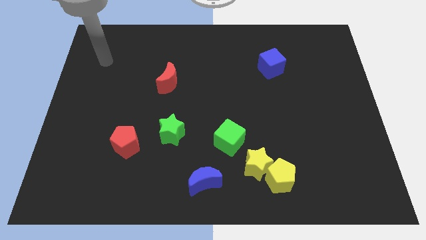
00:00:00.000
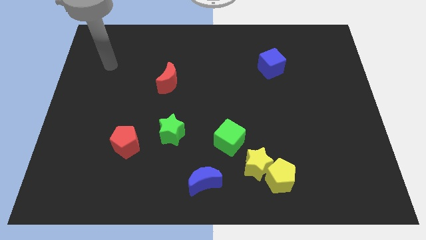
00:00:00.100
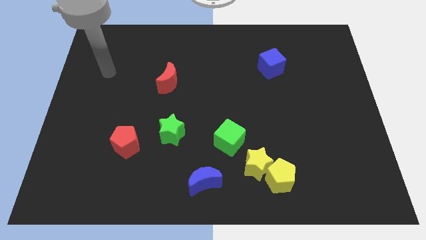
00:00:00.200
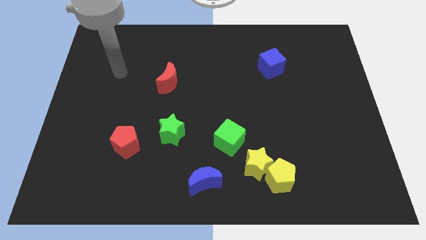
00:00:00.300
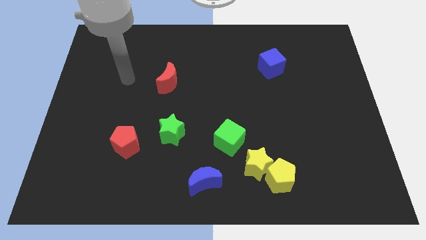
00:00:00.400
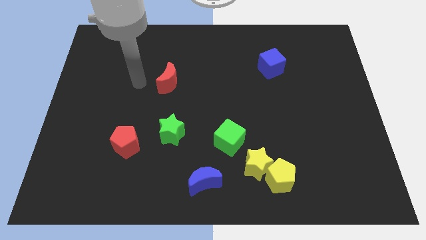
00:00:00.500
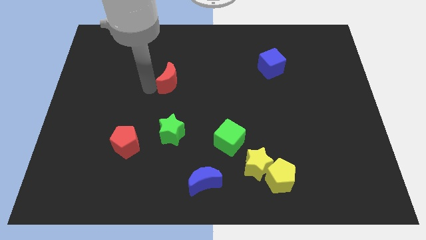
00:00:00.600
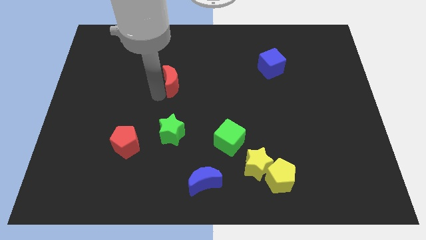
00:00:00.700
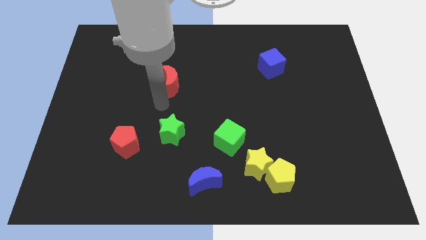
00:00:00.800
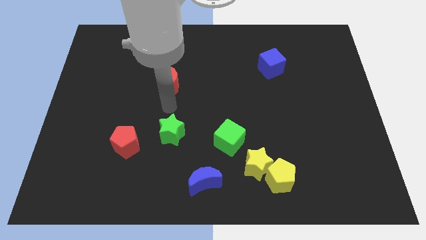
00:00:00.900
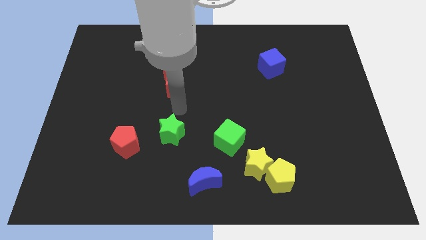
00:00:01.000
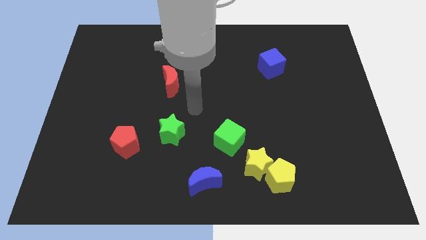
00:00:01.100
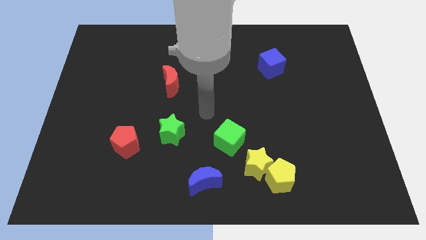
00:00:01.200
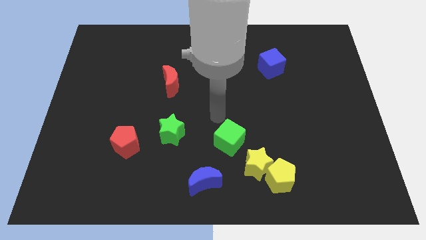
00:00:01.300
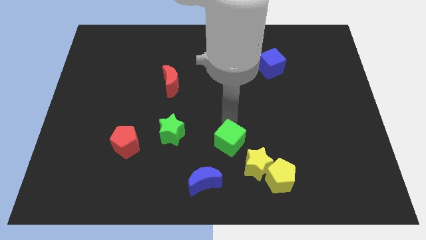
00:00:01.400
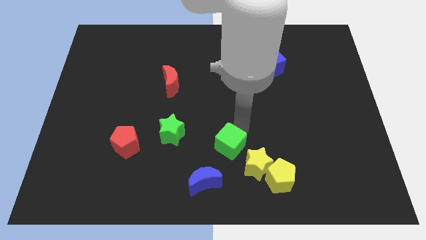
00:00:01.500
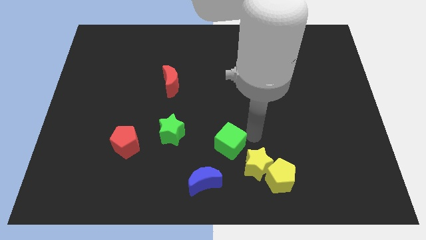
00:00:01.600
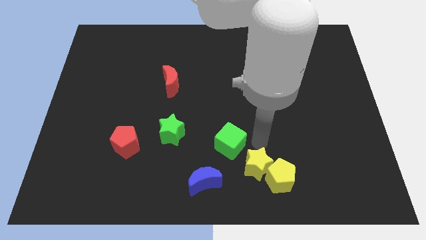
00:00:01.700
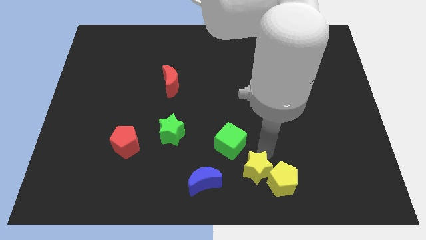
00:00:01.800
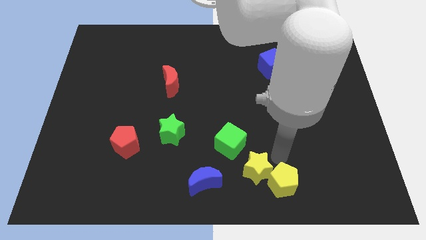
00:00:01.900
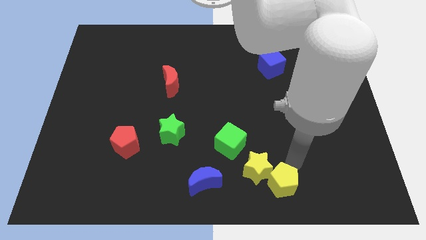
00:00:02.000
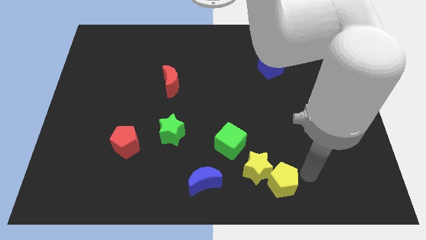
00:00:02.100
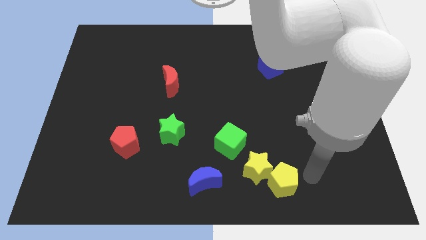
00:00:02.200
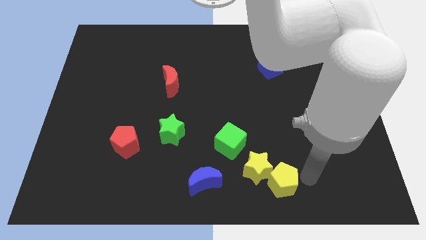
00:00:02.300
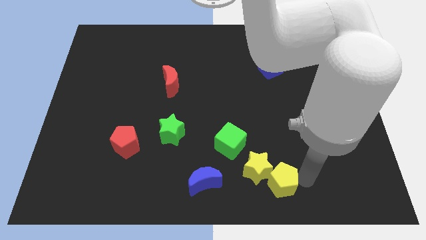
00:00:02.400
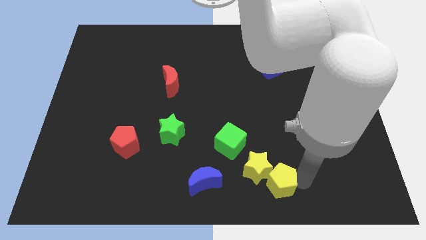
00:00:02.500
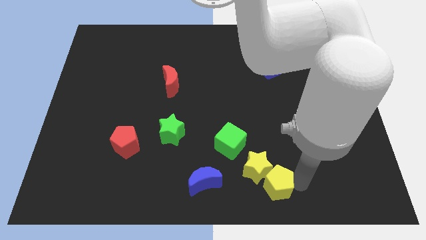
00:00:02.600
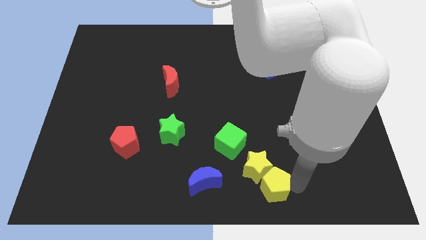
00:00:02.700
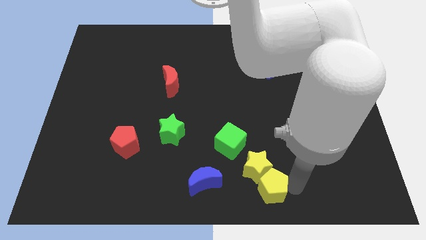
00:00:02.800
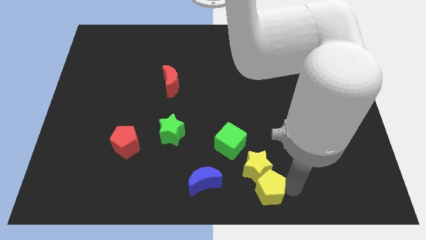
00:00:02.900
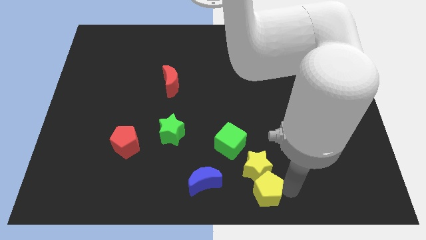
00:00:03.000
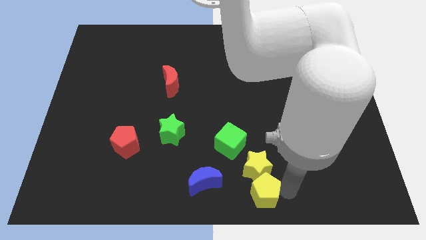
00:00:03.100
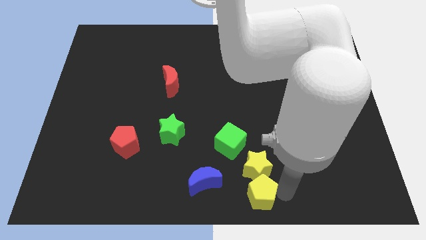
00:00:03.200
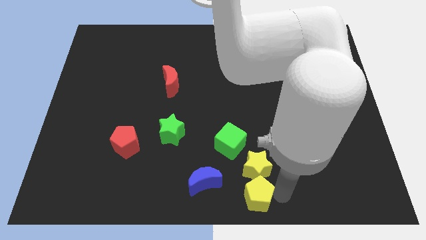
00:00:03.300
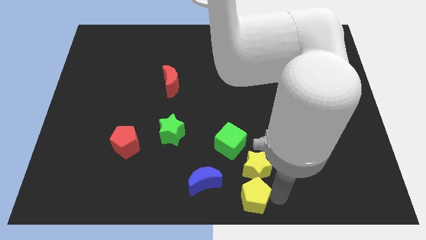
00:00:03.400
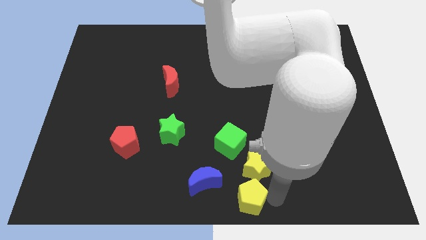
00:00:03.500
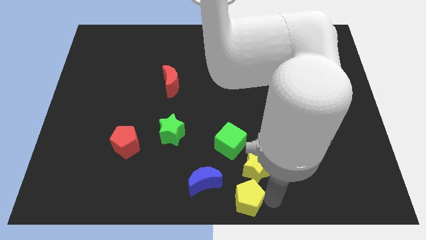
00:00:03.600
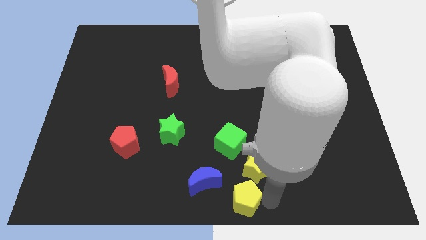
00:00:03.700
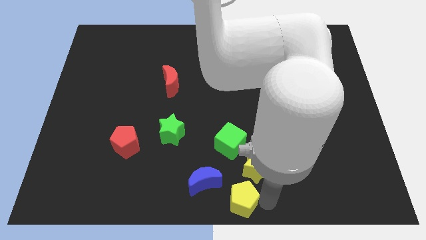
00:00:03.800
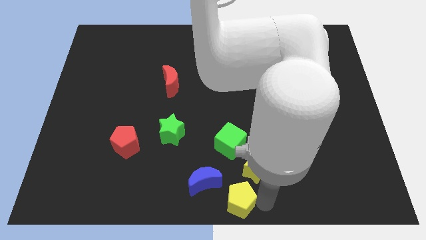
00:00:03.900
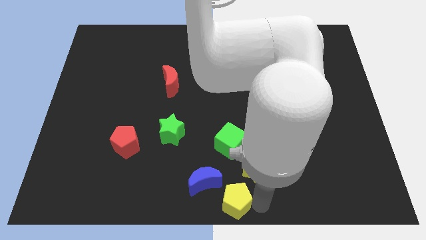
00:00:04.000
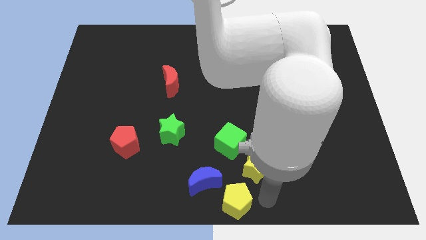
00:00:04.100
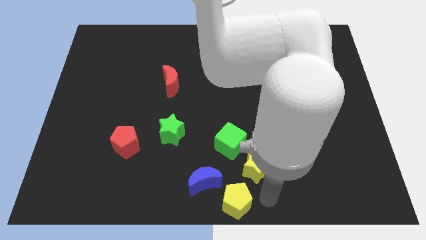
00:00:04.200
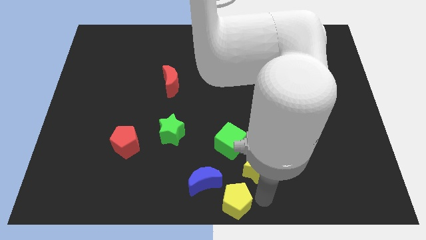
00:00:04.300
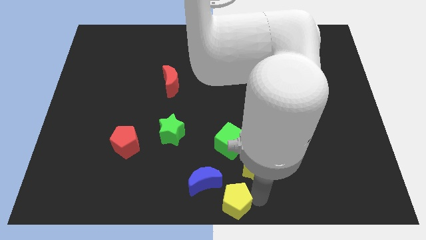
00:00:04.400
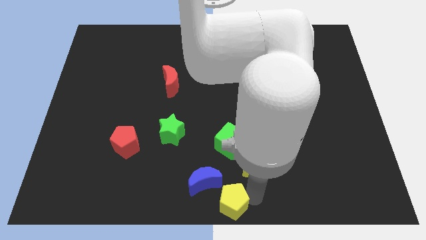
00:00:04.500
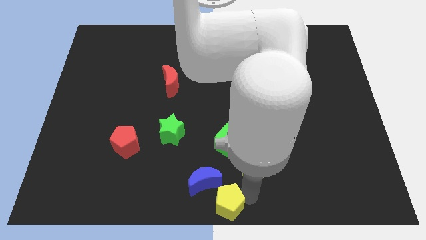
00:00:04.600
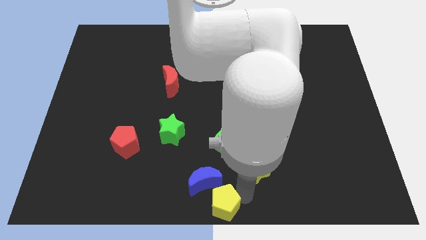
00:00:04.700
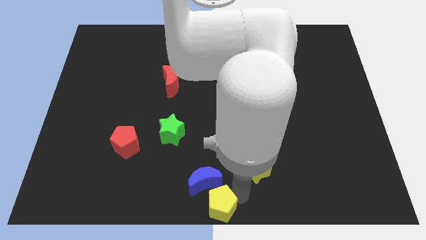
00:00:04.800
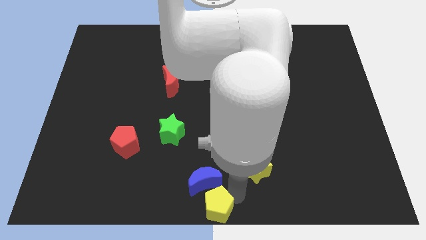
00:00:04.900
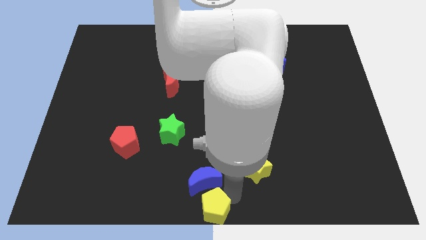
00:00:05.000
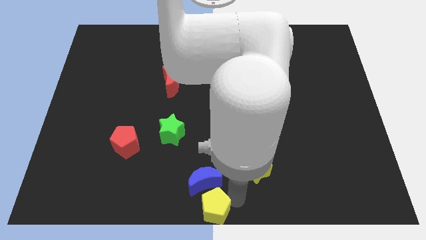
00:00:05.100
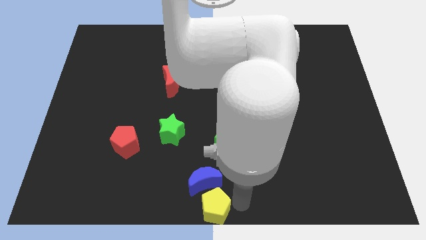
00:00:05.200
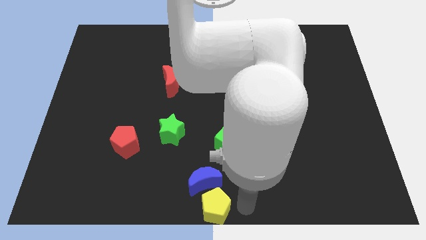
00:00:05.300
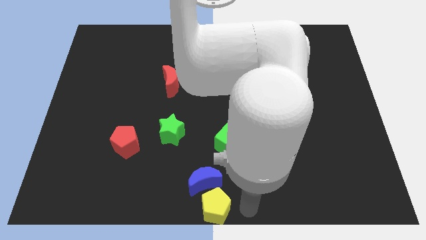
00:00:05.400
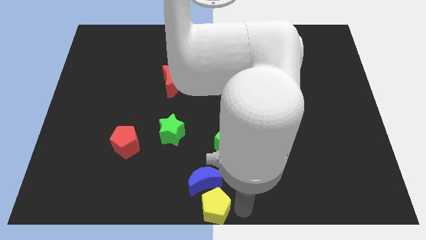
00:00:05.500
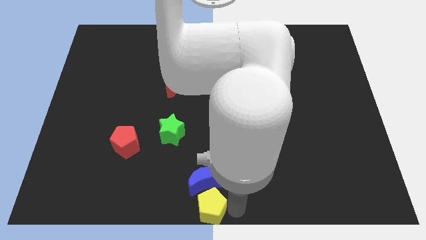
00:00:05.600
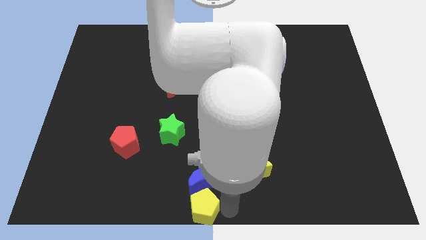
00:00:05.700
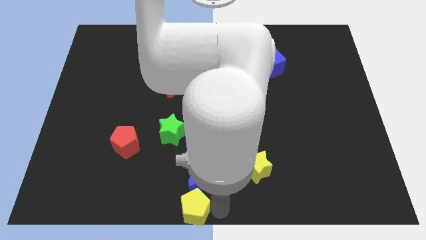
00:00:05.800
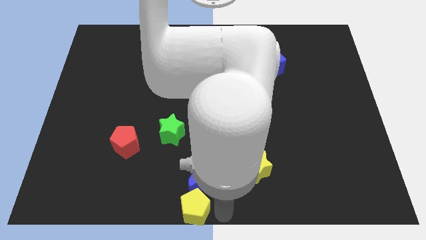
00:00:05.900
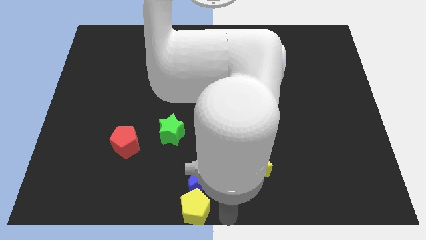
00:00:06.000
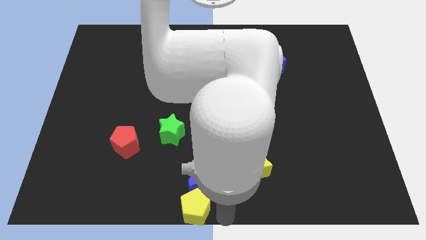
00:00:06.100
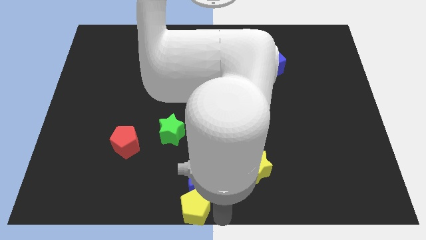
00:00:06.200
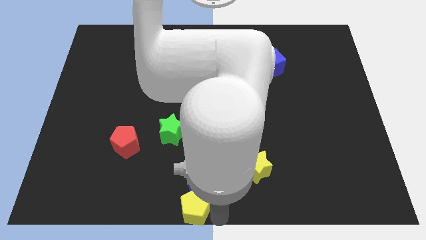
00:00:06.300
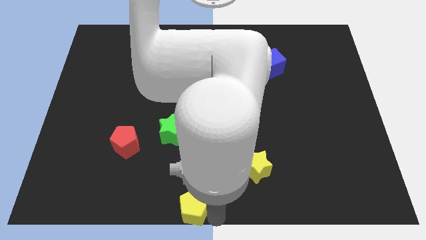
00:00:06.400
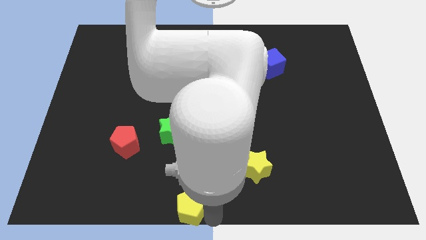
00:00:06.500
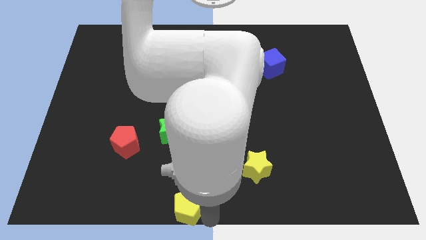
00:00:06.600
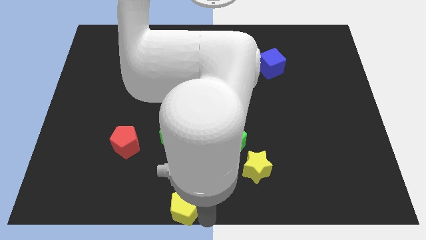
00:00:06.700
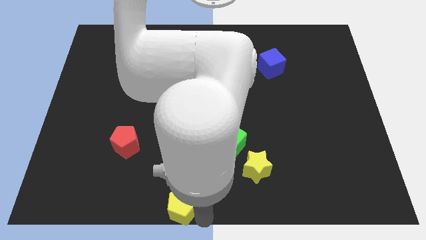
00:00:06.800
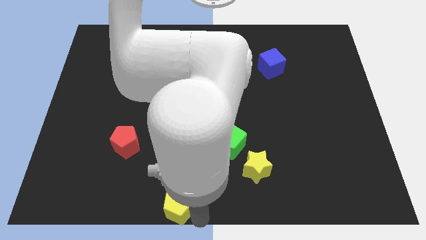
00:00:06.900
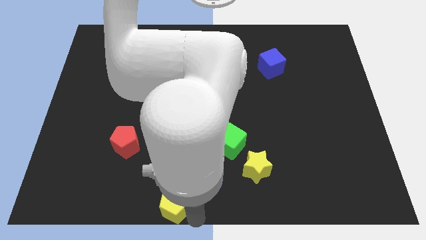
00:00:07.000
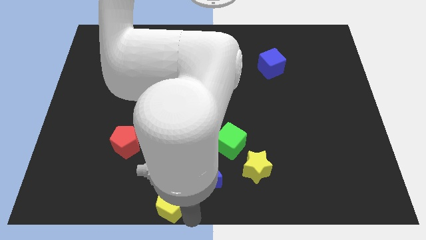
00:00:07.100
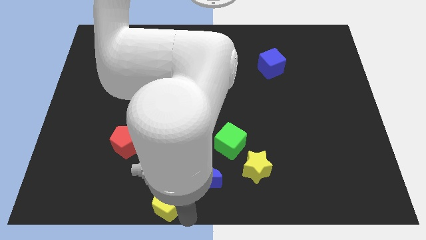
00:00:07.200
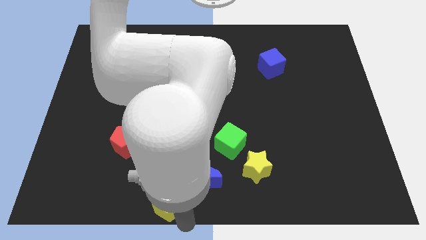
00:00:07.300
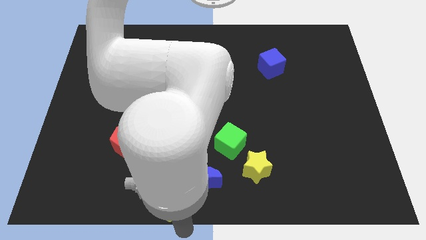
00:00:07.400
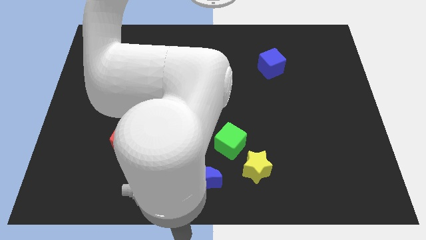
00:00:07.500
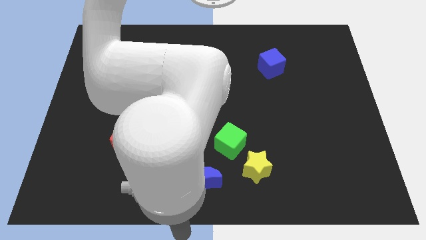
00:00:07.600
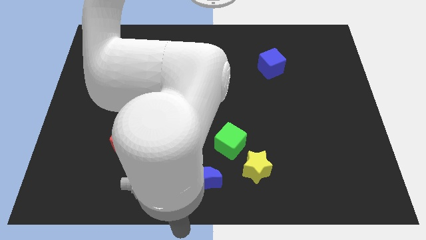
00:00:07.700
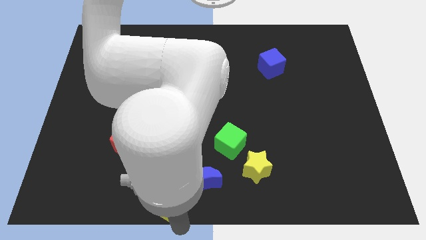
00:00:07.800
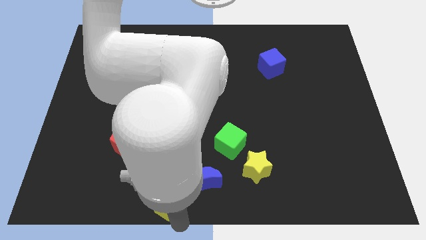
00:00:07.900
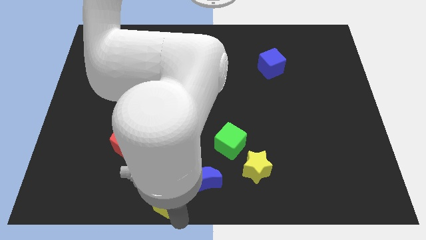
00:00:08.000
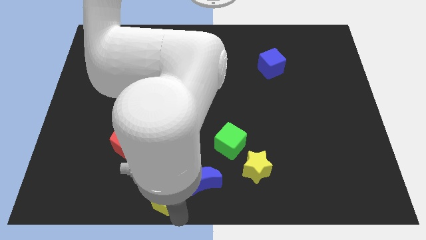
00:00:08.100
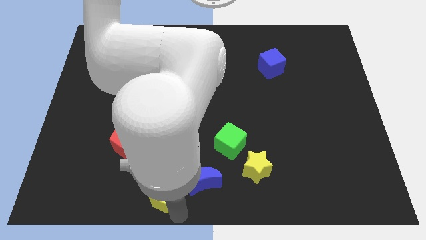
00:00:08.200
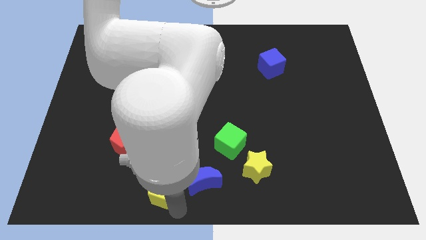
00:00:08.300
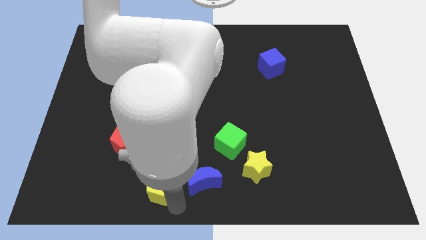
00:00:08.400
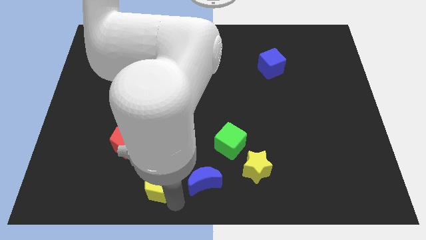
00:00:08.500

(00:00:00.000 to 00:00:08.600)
push the yellow pentagon to the bottom right side of the red pentagon
